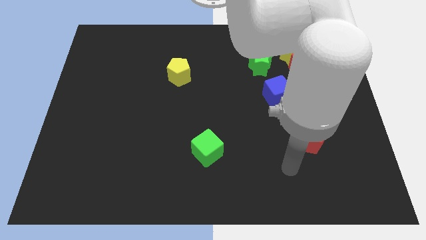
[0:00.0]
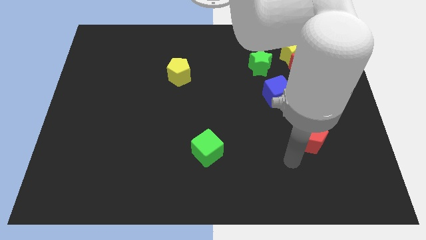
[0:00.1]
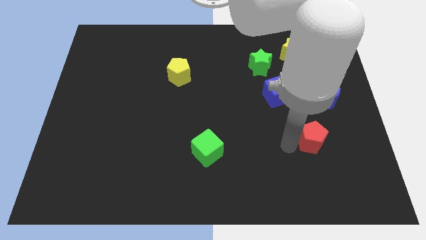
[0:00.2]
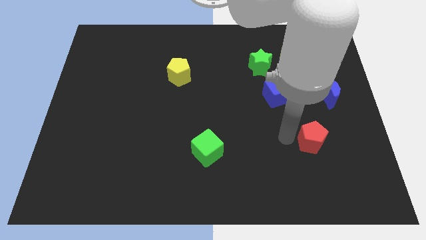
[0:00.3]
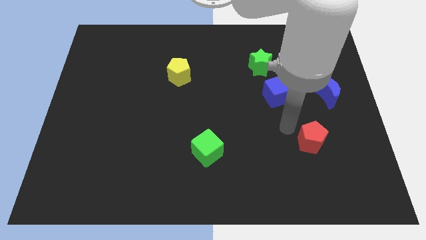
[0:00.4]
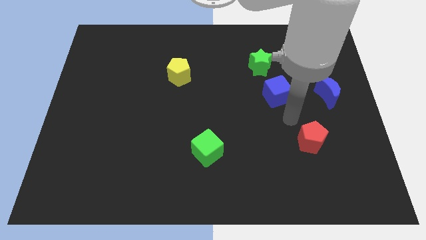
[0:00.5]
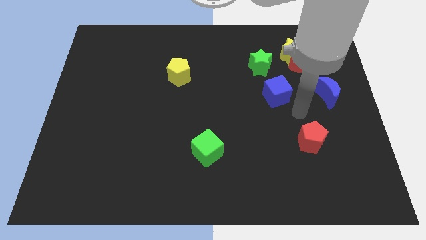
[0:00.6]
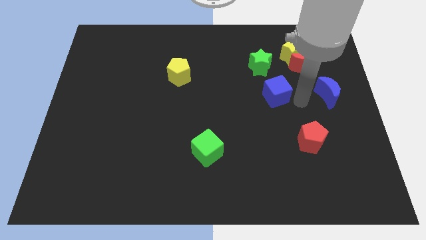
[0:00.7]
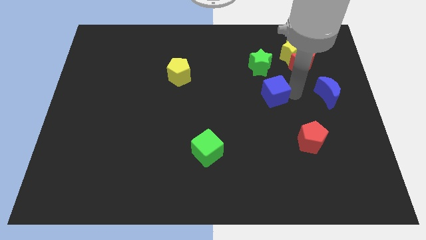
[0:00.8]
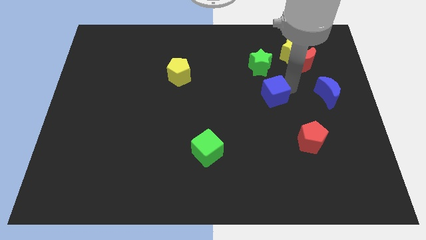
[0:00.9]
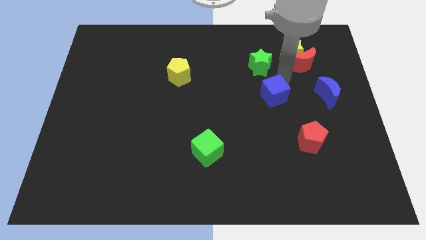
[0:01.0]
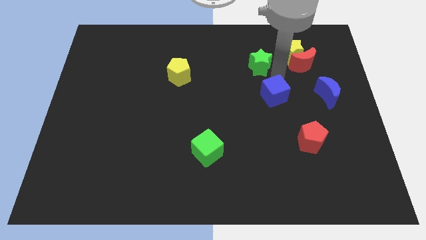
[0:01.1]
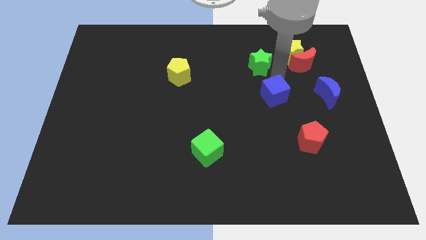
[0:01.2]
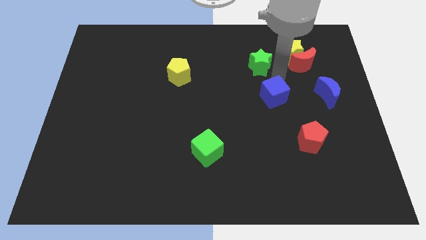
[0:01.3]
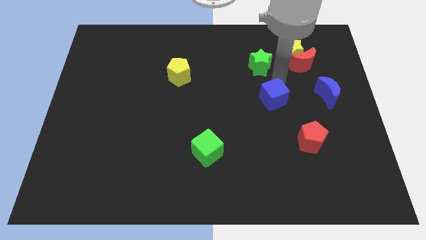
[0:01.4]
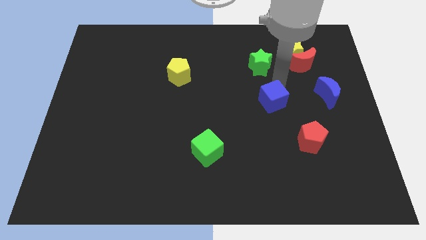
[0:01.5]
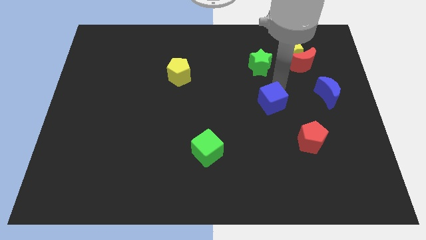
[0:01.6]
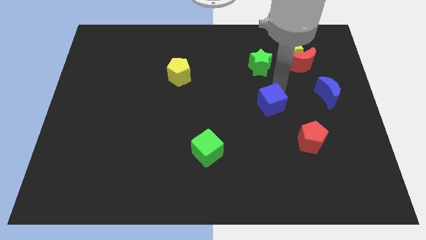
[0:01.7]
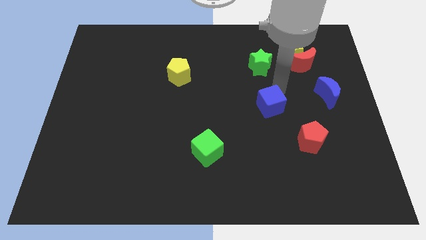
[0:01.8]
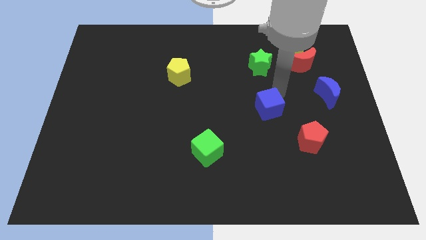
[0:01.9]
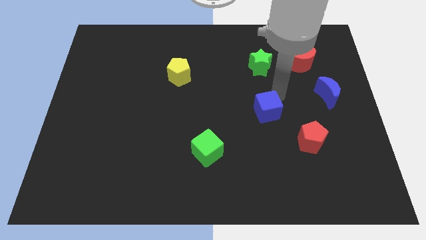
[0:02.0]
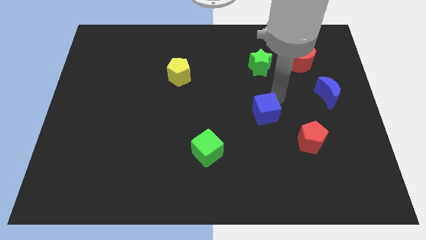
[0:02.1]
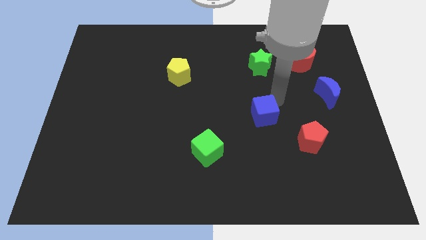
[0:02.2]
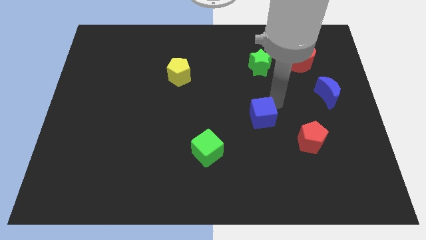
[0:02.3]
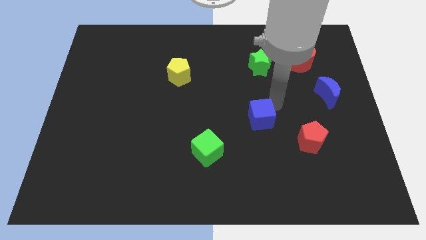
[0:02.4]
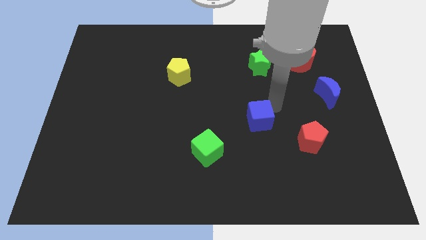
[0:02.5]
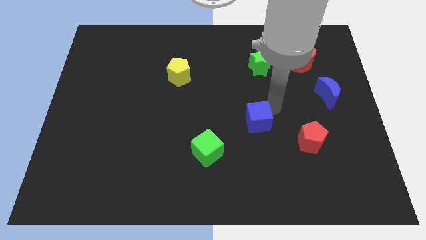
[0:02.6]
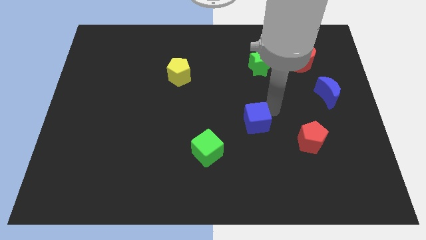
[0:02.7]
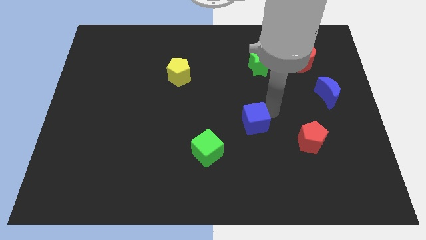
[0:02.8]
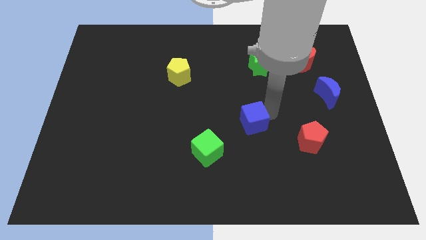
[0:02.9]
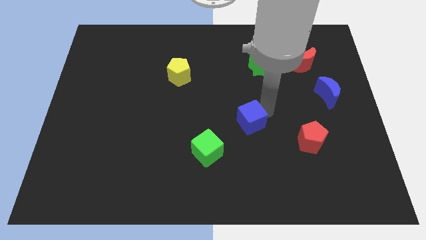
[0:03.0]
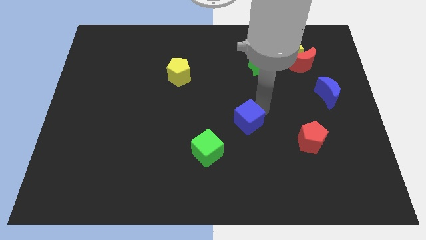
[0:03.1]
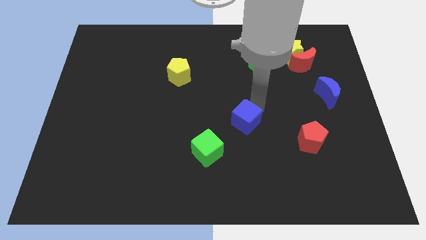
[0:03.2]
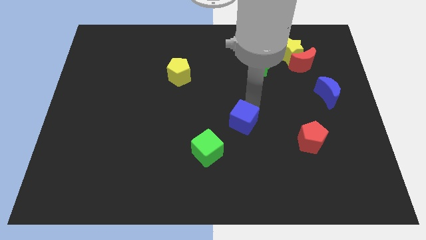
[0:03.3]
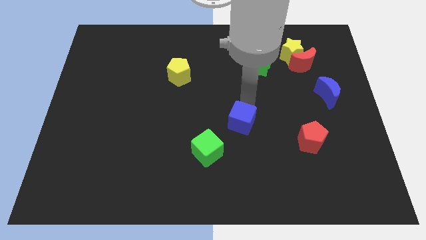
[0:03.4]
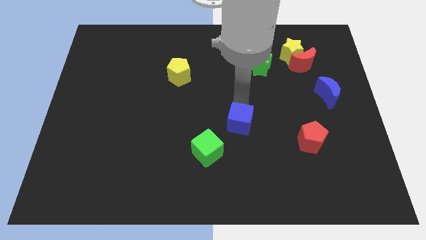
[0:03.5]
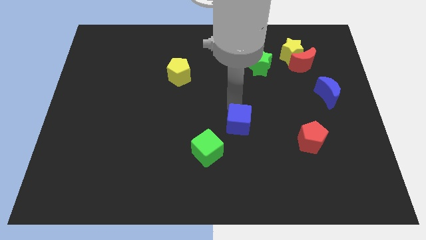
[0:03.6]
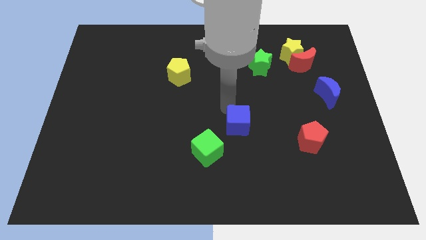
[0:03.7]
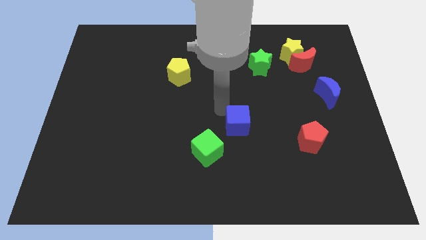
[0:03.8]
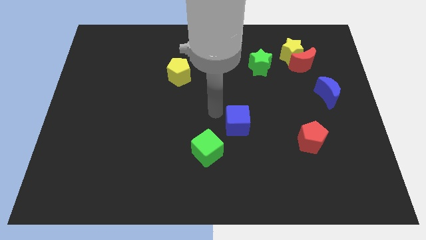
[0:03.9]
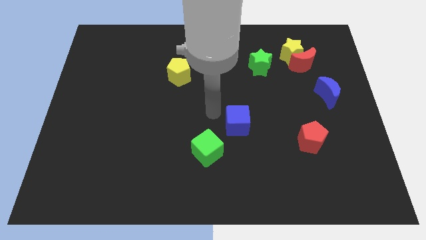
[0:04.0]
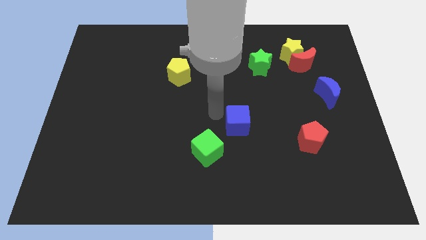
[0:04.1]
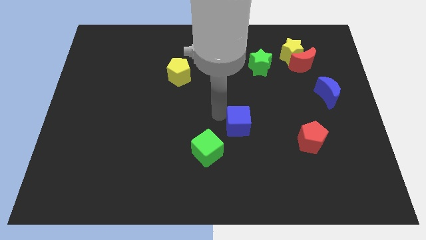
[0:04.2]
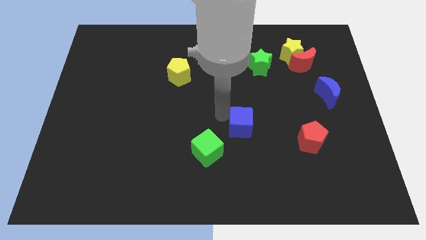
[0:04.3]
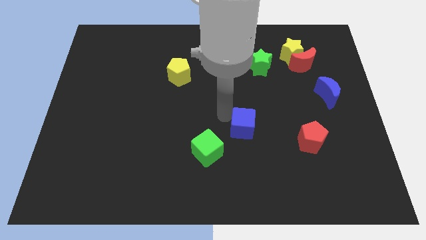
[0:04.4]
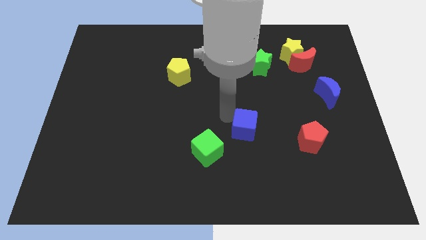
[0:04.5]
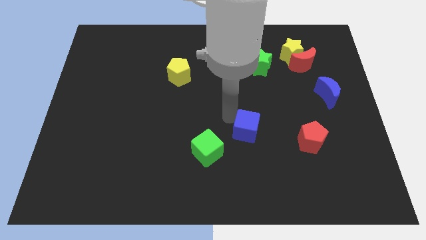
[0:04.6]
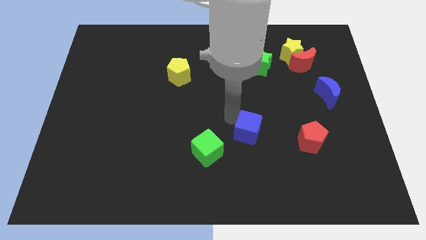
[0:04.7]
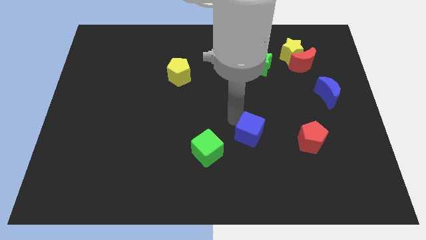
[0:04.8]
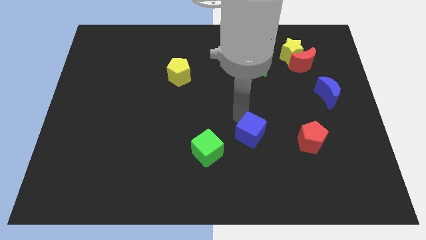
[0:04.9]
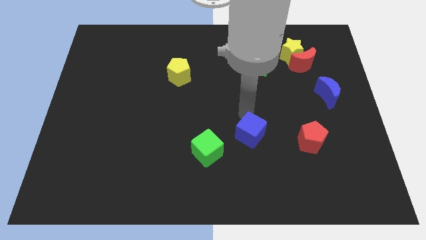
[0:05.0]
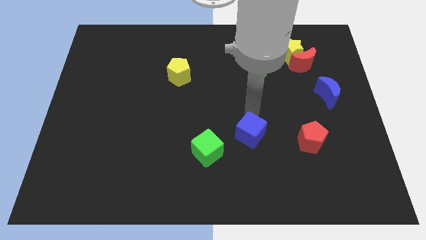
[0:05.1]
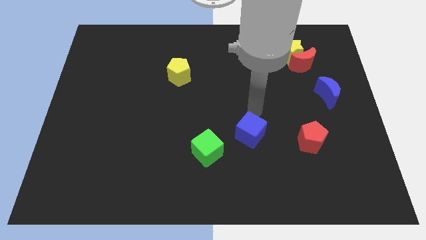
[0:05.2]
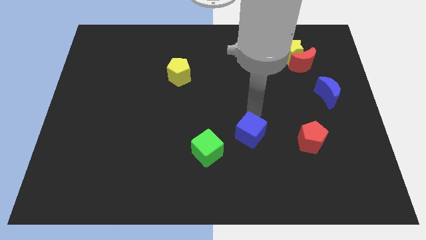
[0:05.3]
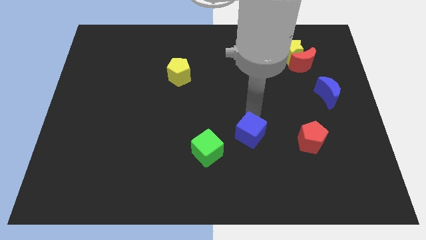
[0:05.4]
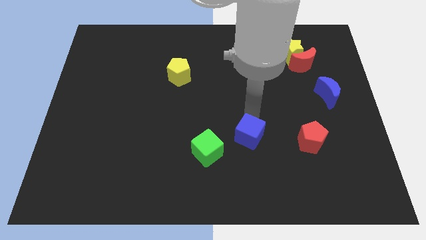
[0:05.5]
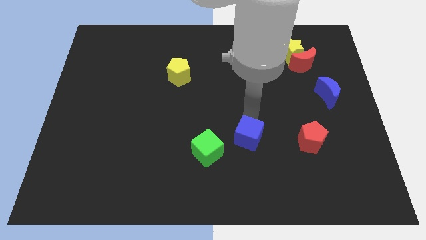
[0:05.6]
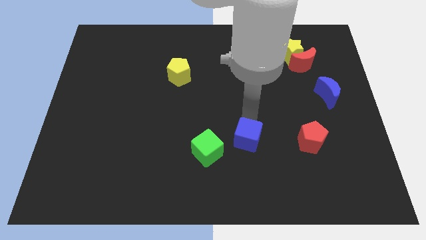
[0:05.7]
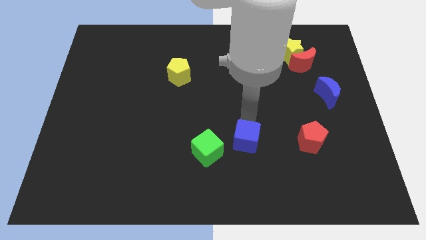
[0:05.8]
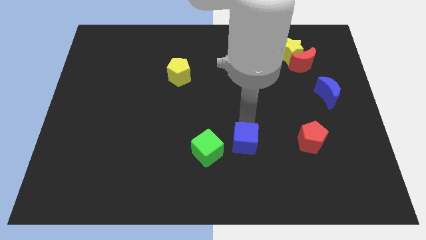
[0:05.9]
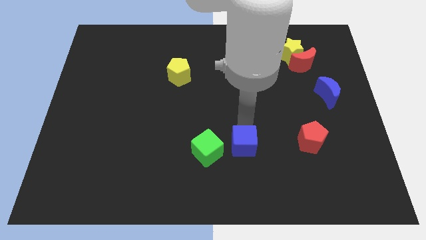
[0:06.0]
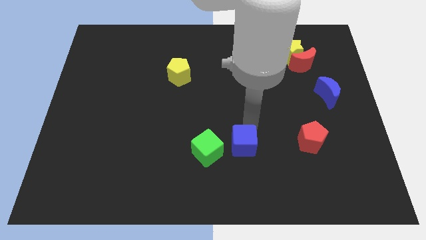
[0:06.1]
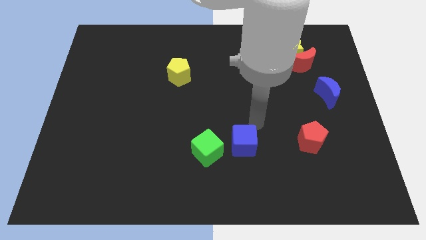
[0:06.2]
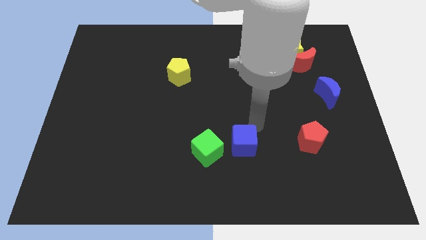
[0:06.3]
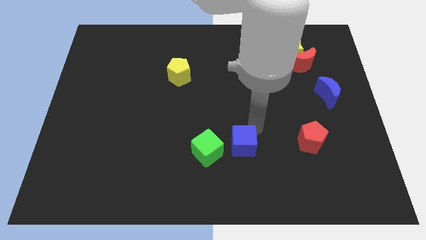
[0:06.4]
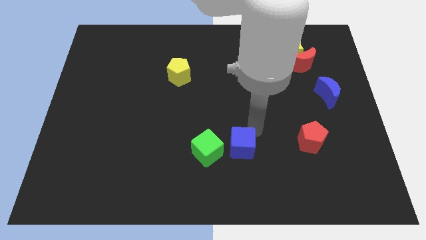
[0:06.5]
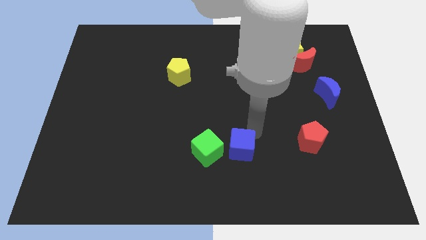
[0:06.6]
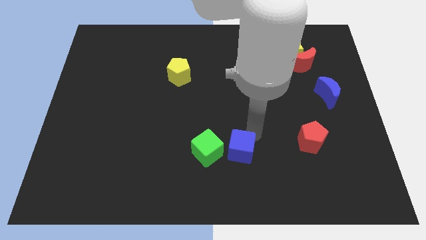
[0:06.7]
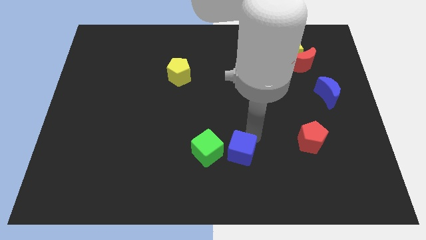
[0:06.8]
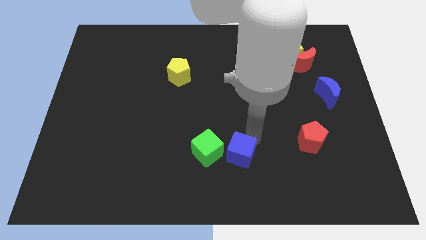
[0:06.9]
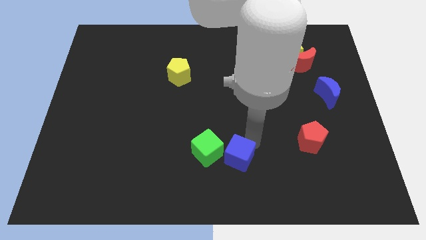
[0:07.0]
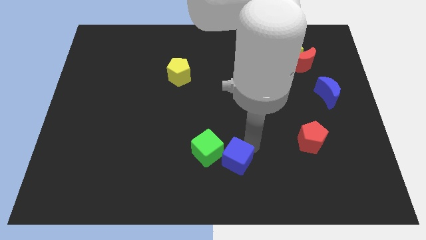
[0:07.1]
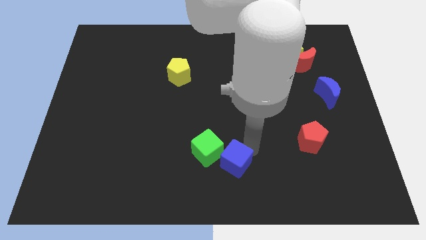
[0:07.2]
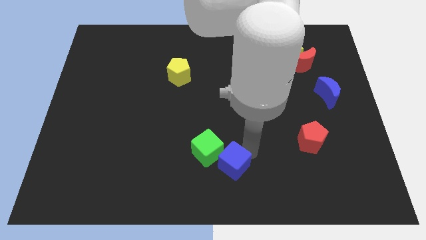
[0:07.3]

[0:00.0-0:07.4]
slide the blue cube down and to the left diagonally
